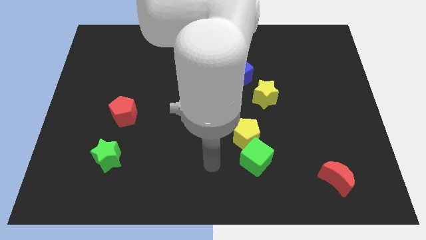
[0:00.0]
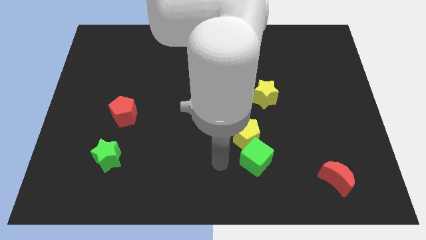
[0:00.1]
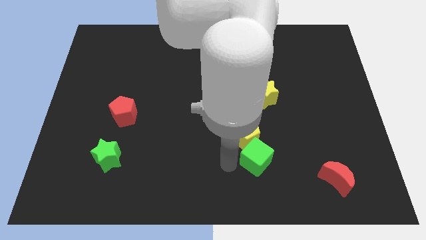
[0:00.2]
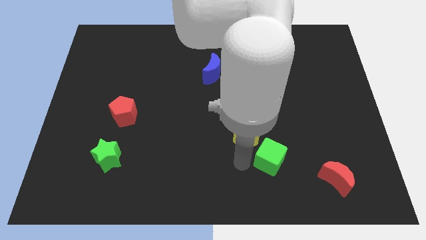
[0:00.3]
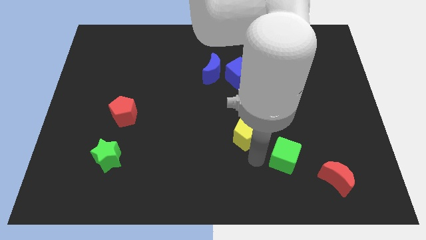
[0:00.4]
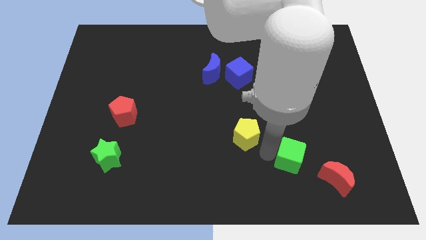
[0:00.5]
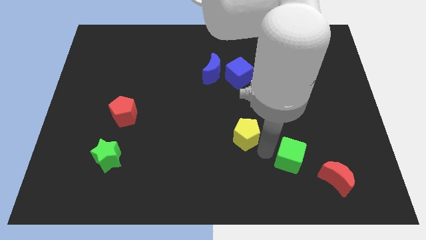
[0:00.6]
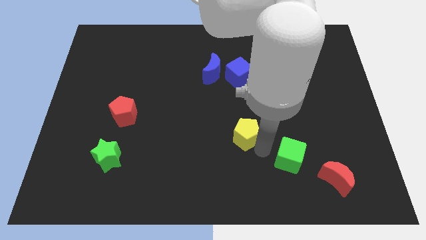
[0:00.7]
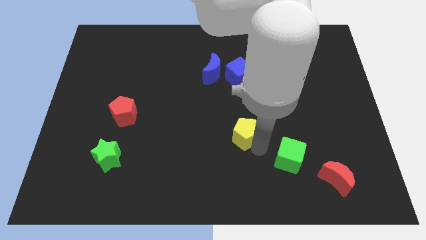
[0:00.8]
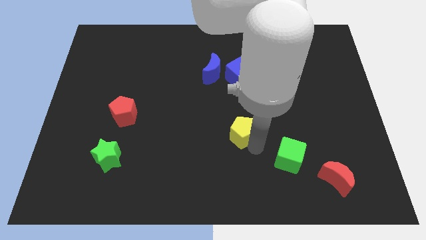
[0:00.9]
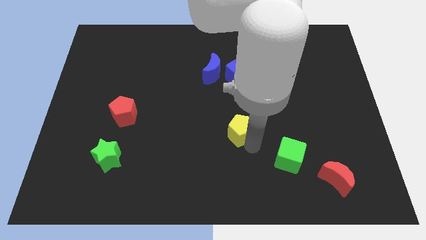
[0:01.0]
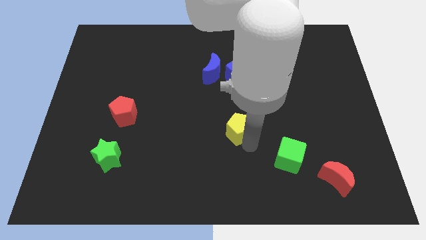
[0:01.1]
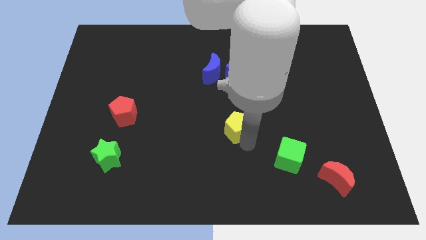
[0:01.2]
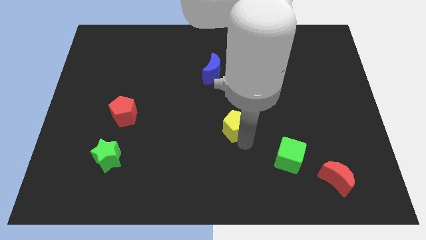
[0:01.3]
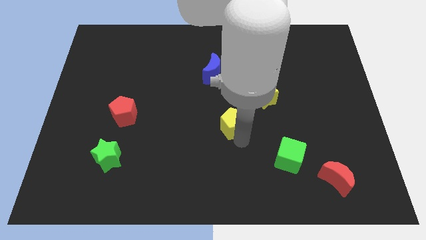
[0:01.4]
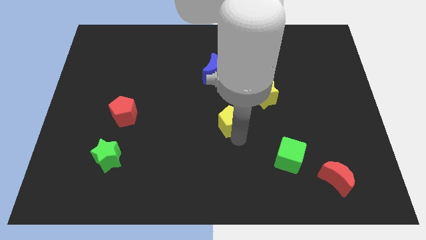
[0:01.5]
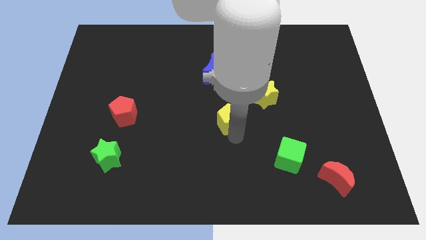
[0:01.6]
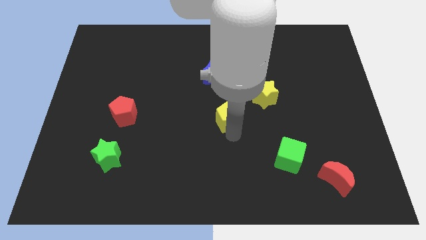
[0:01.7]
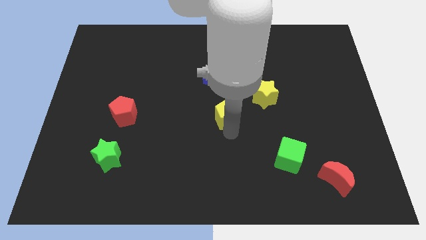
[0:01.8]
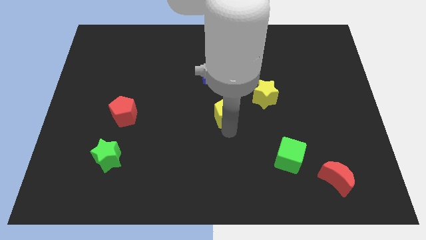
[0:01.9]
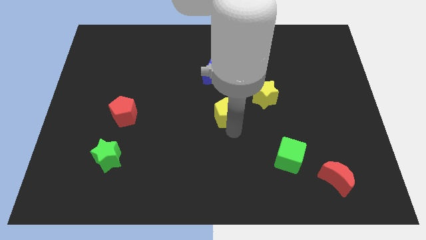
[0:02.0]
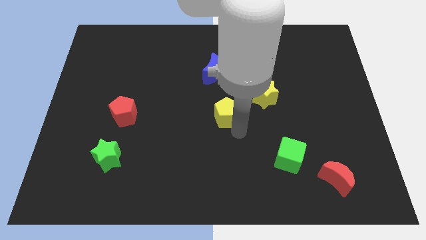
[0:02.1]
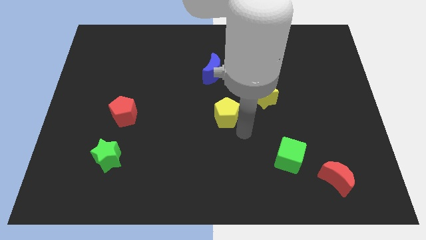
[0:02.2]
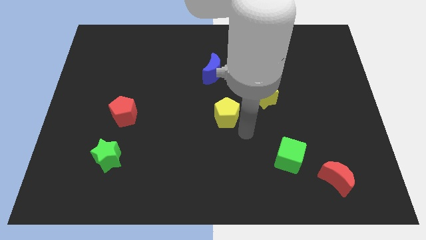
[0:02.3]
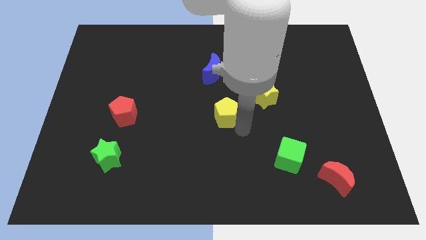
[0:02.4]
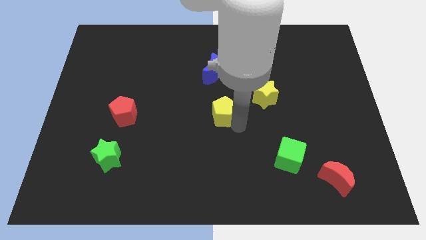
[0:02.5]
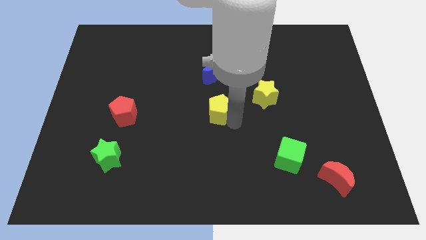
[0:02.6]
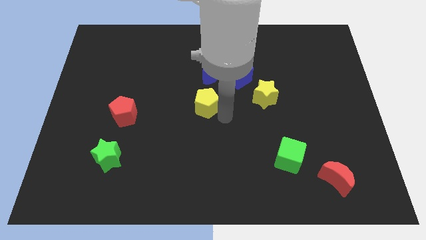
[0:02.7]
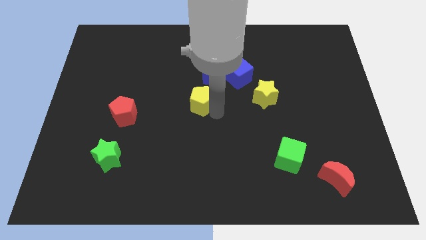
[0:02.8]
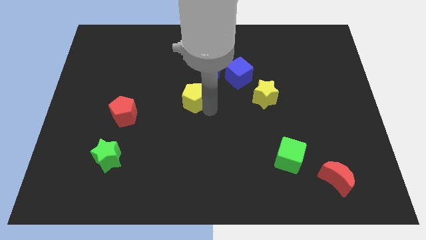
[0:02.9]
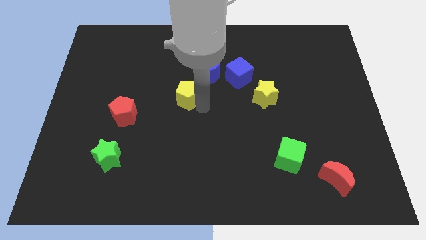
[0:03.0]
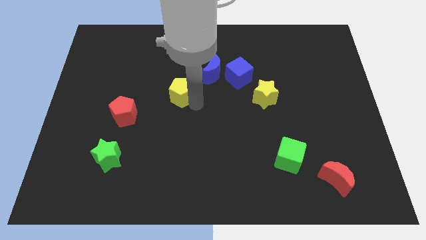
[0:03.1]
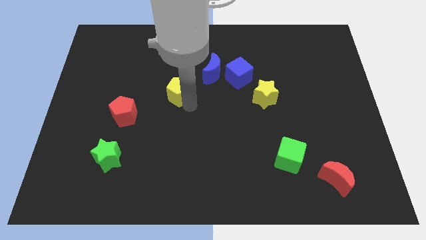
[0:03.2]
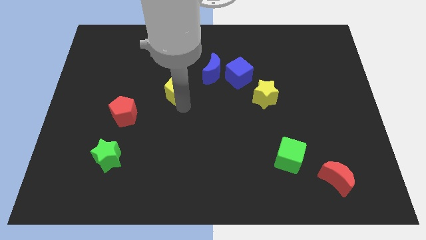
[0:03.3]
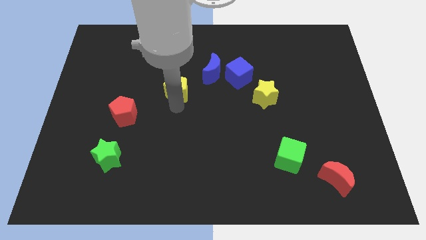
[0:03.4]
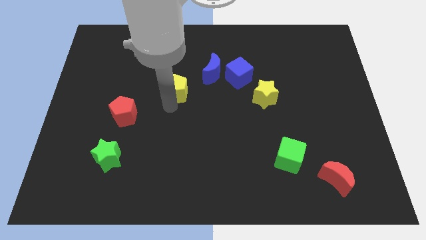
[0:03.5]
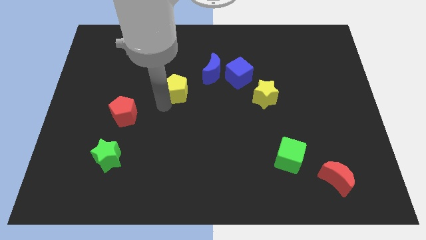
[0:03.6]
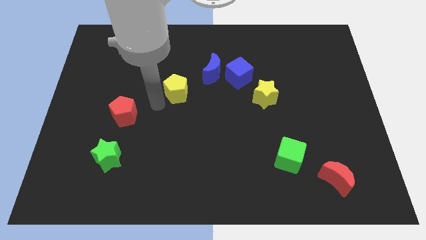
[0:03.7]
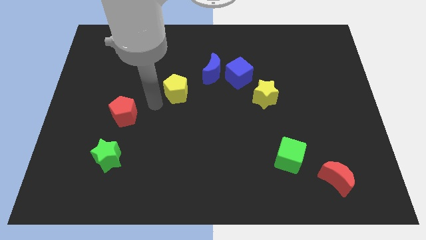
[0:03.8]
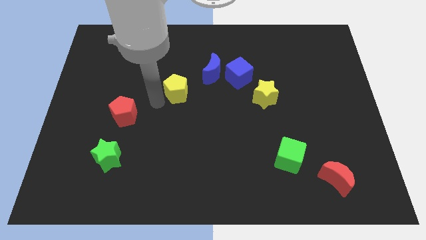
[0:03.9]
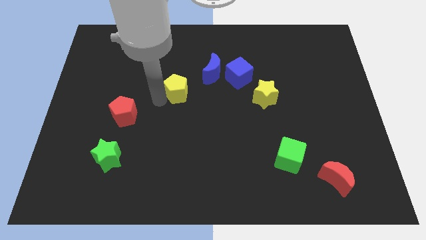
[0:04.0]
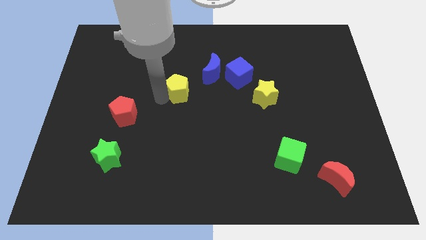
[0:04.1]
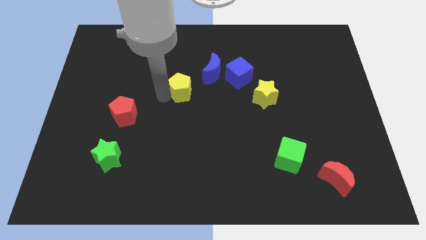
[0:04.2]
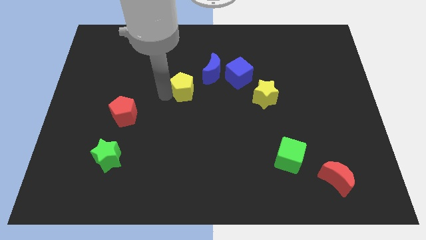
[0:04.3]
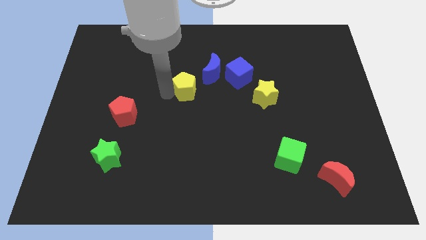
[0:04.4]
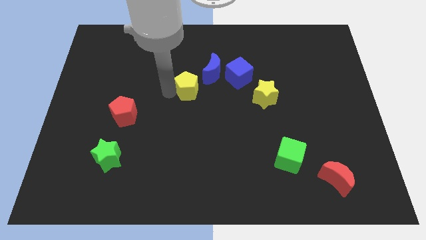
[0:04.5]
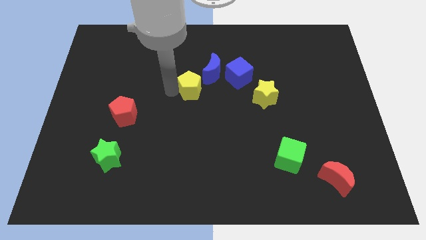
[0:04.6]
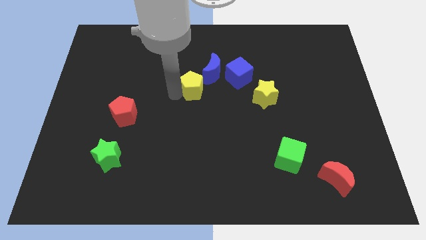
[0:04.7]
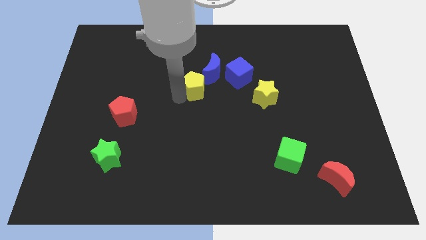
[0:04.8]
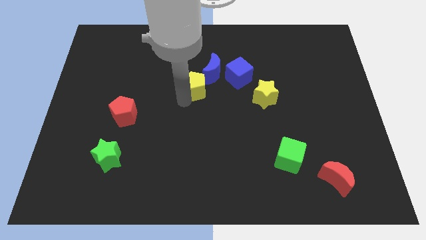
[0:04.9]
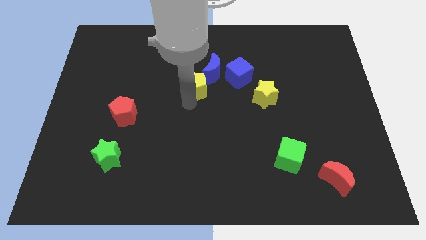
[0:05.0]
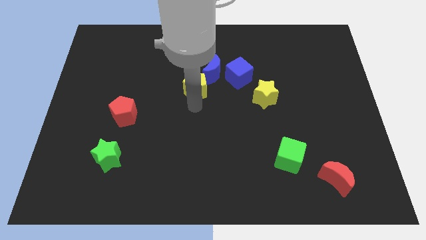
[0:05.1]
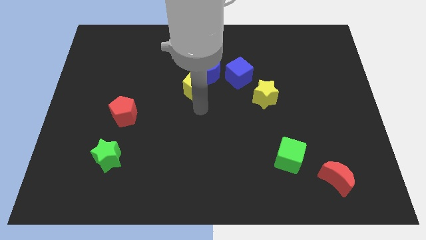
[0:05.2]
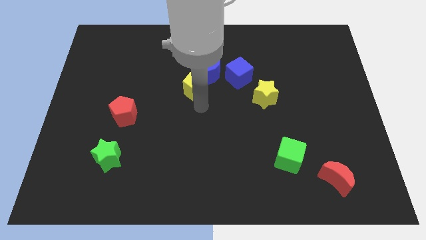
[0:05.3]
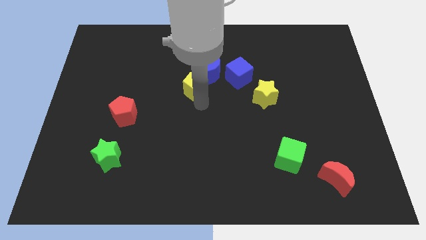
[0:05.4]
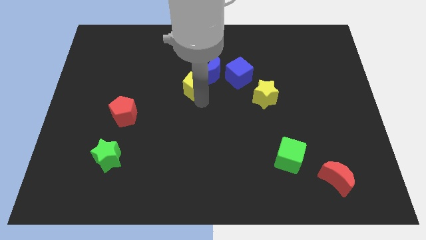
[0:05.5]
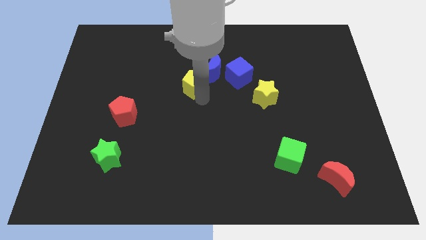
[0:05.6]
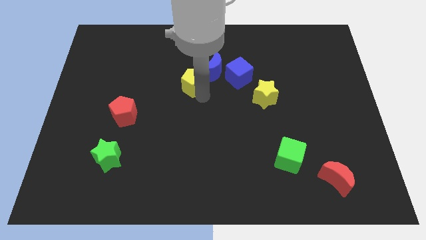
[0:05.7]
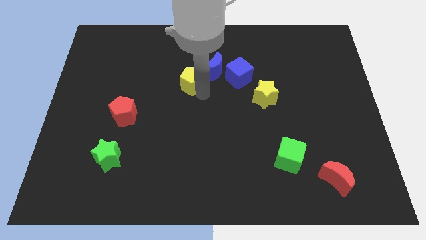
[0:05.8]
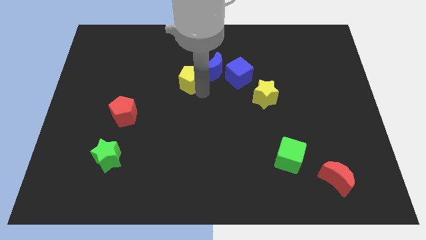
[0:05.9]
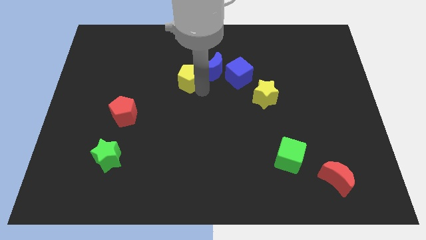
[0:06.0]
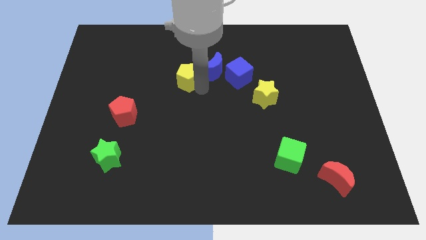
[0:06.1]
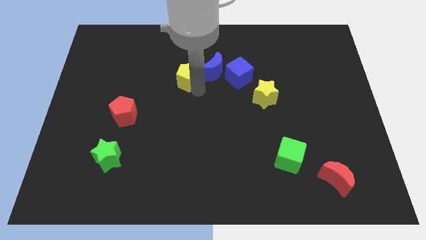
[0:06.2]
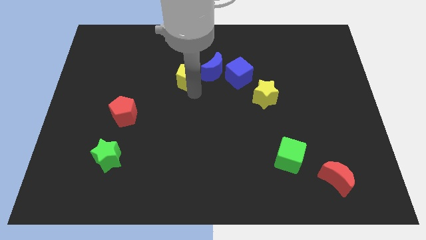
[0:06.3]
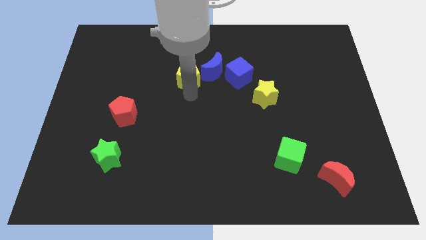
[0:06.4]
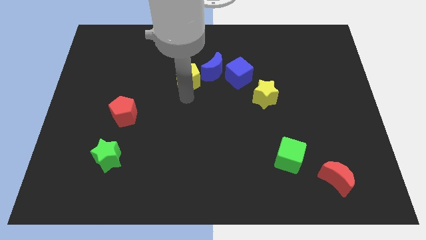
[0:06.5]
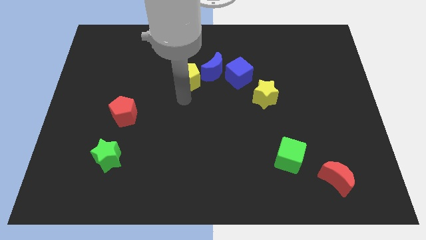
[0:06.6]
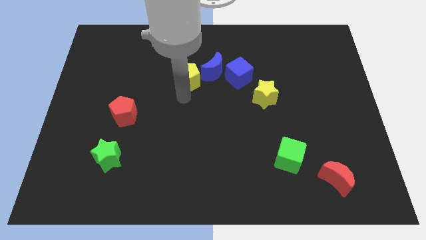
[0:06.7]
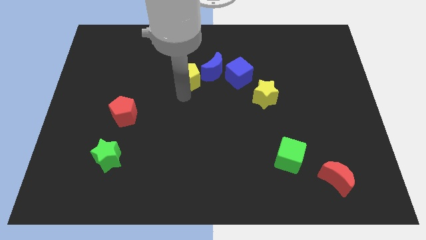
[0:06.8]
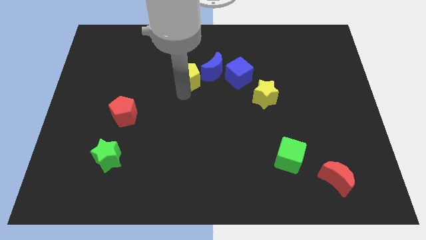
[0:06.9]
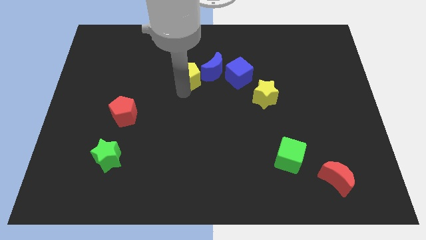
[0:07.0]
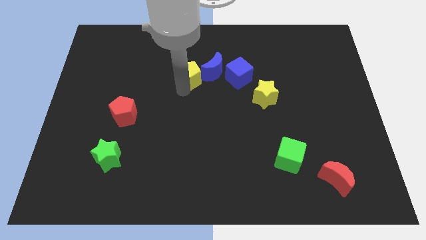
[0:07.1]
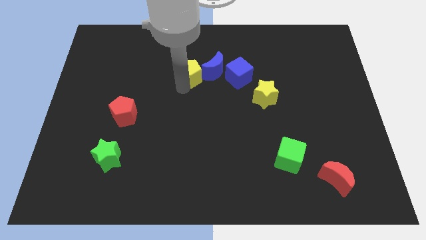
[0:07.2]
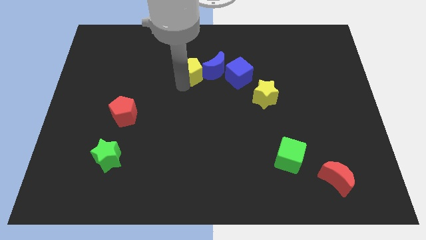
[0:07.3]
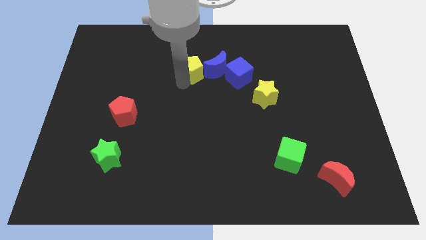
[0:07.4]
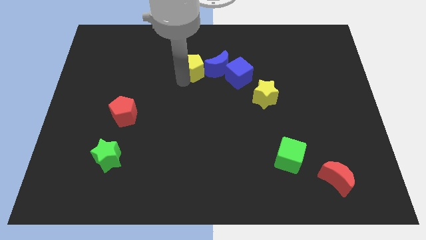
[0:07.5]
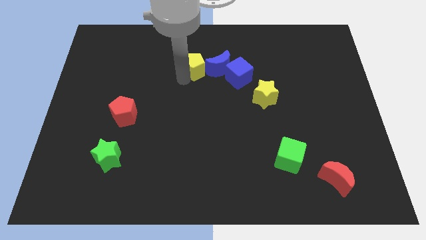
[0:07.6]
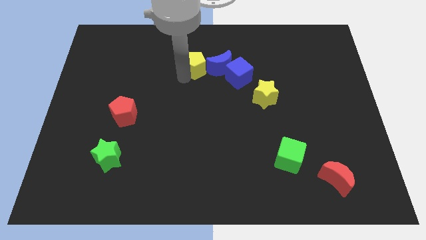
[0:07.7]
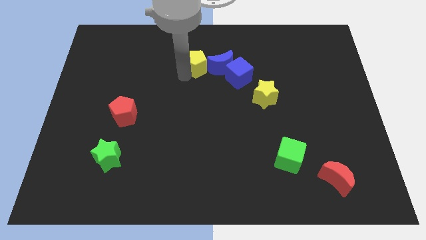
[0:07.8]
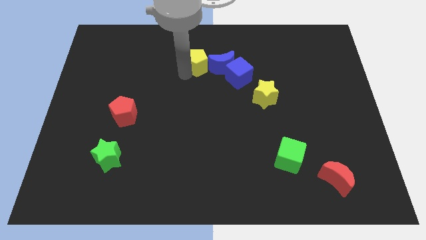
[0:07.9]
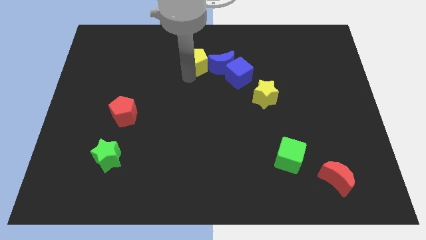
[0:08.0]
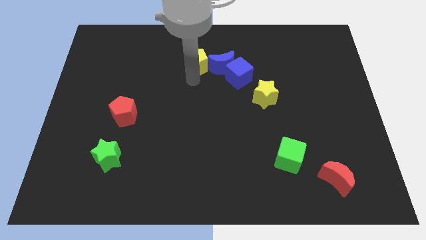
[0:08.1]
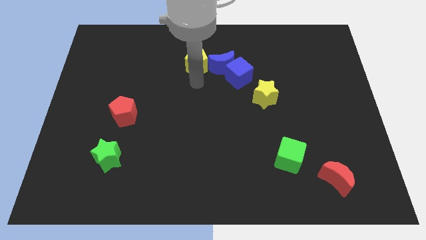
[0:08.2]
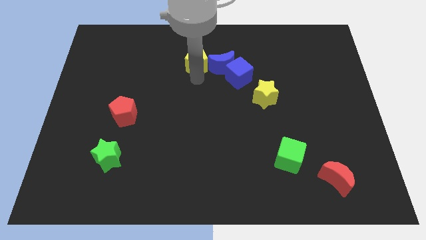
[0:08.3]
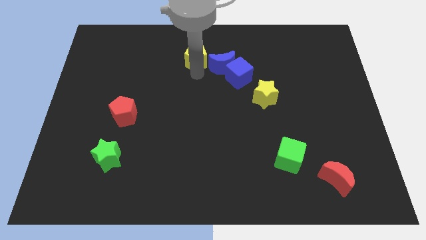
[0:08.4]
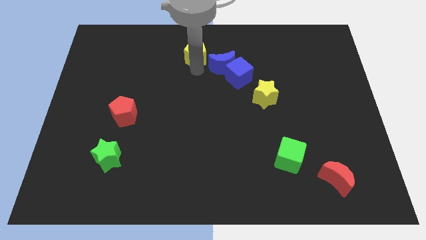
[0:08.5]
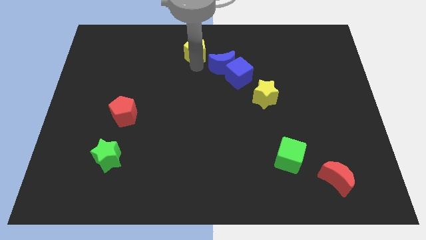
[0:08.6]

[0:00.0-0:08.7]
move the yellow pentagon to the top
